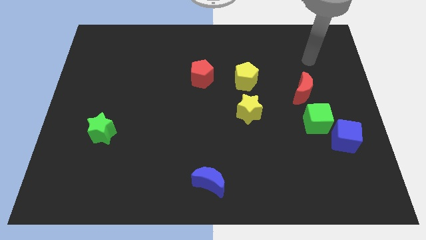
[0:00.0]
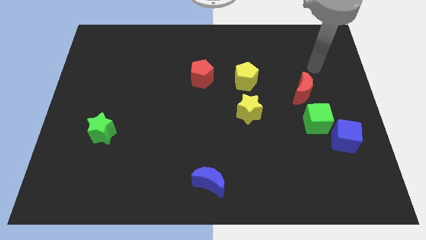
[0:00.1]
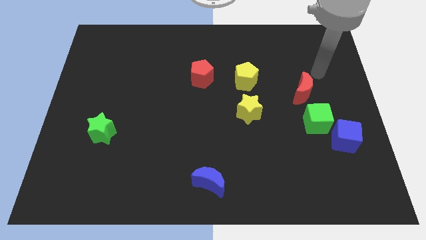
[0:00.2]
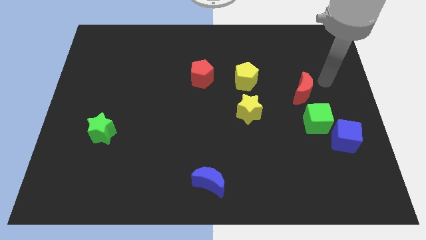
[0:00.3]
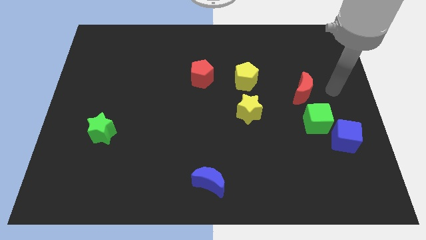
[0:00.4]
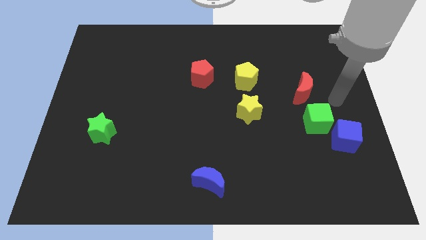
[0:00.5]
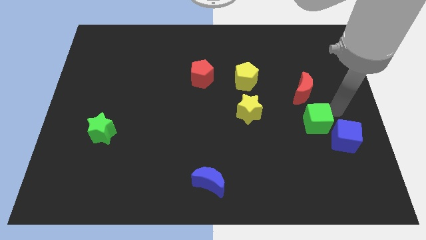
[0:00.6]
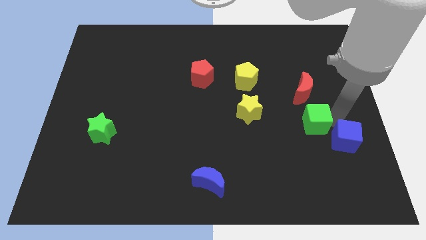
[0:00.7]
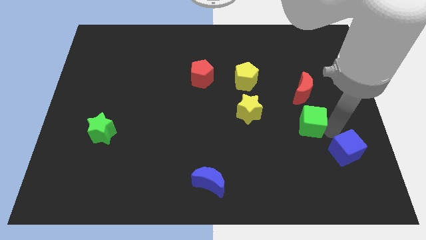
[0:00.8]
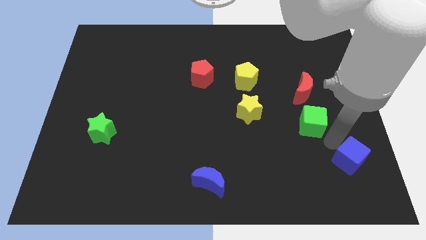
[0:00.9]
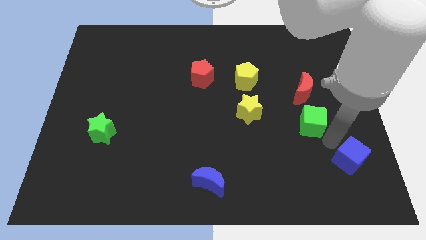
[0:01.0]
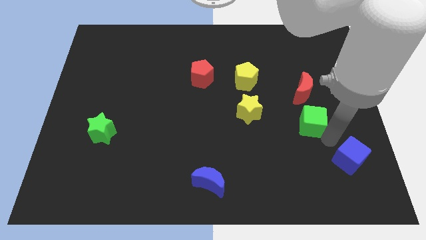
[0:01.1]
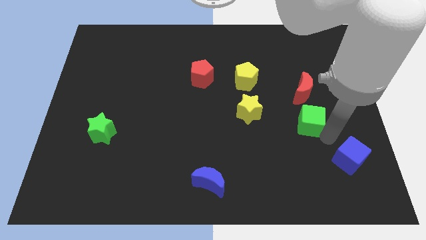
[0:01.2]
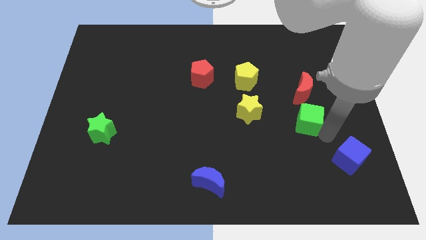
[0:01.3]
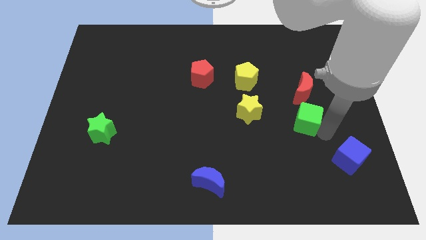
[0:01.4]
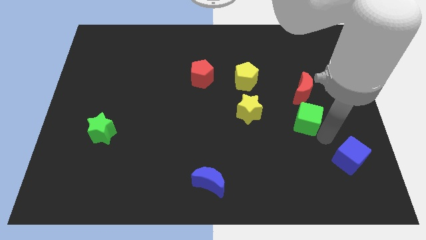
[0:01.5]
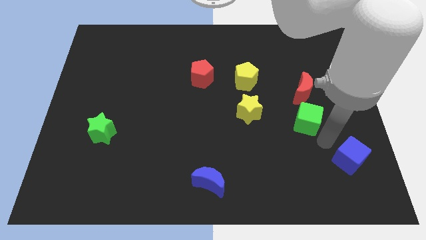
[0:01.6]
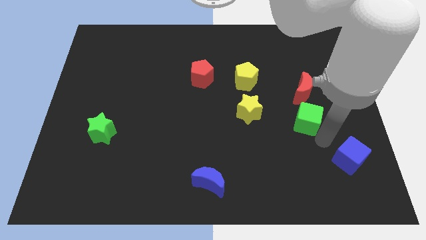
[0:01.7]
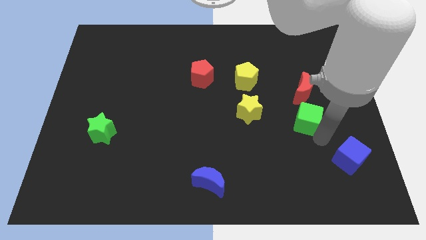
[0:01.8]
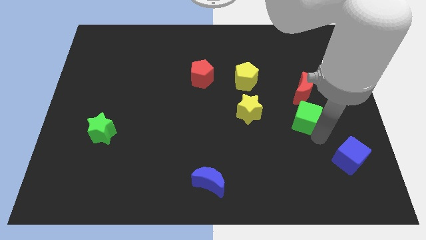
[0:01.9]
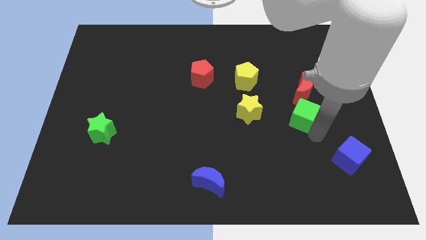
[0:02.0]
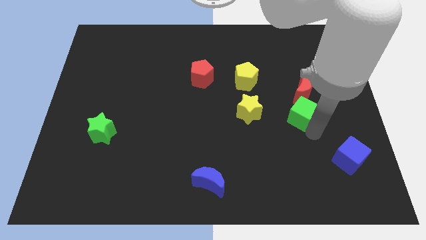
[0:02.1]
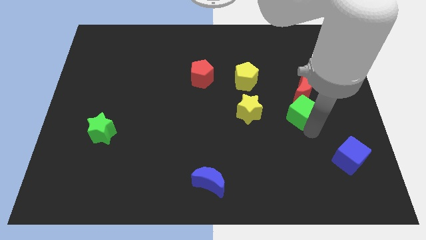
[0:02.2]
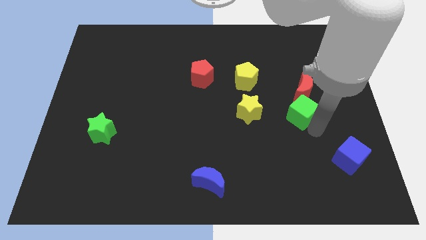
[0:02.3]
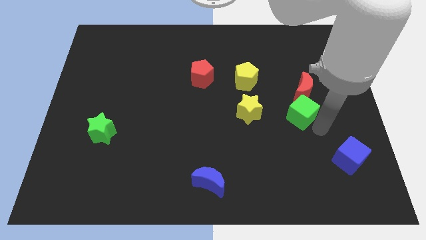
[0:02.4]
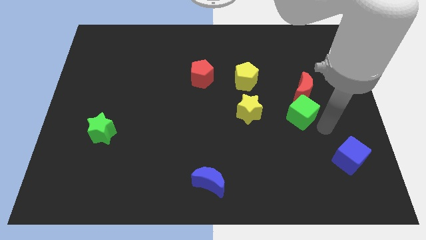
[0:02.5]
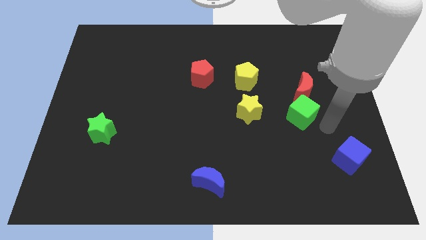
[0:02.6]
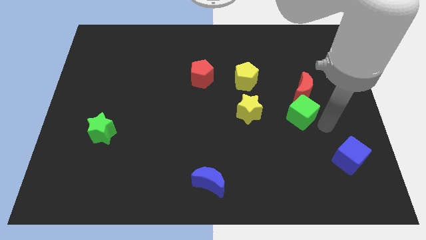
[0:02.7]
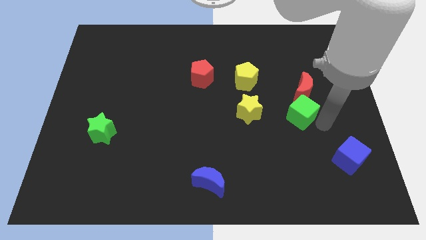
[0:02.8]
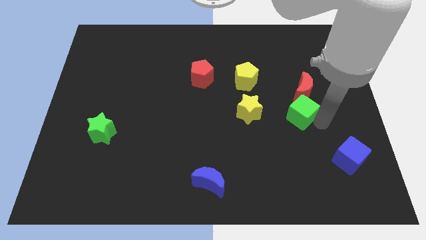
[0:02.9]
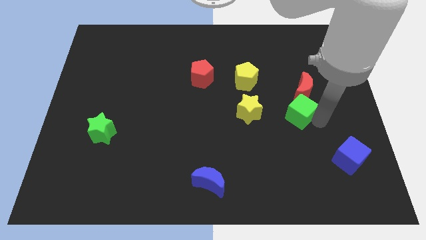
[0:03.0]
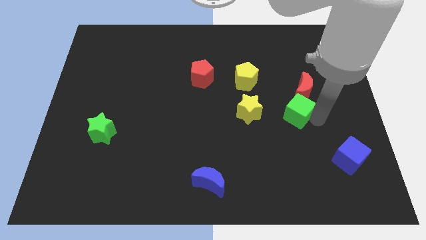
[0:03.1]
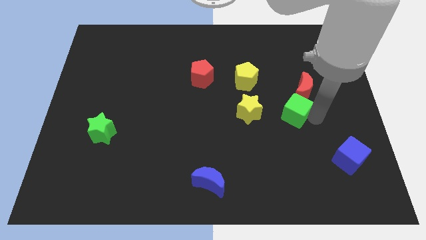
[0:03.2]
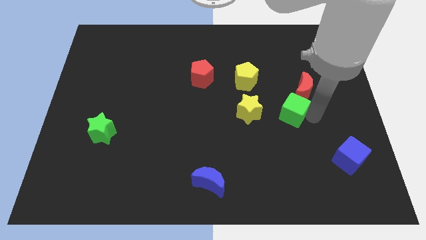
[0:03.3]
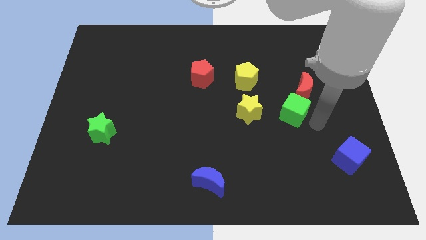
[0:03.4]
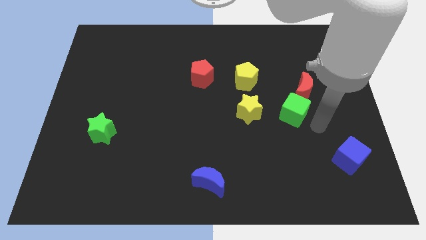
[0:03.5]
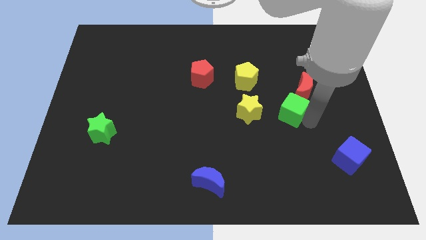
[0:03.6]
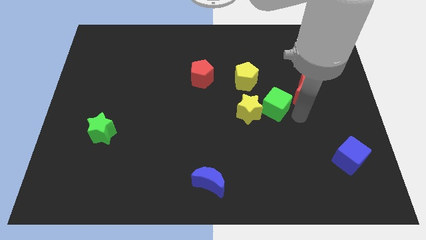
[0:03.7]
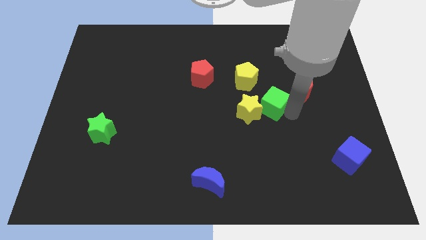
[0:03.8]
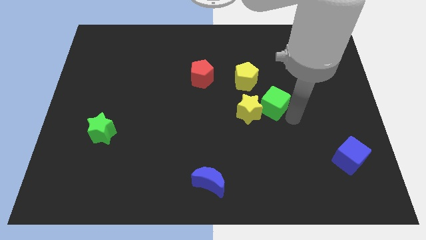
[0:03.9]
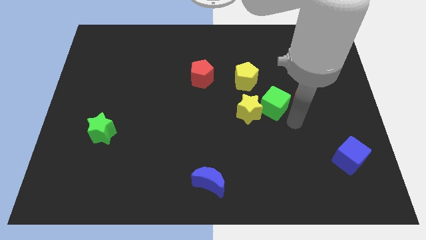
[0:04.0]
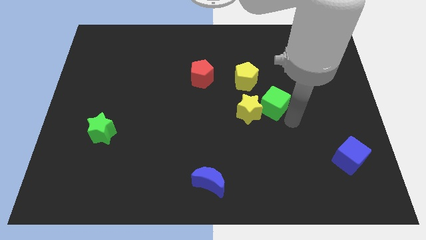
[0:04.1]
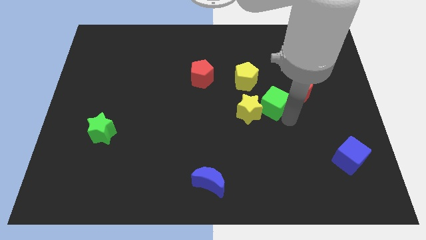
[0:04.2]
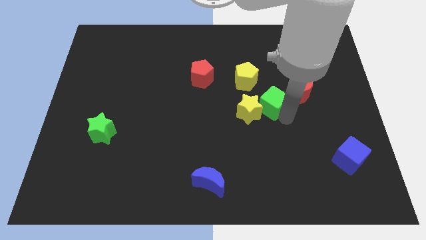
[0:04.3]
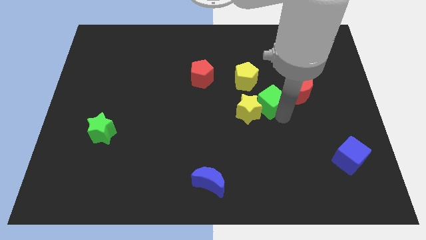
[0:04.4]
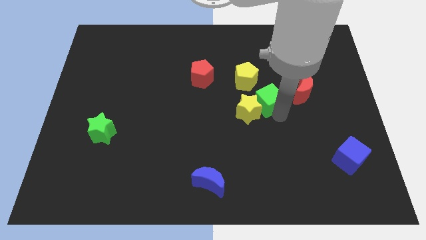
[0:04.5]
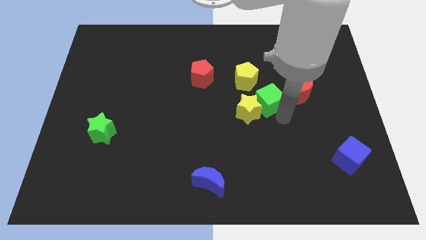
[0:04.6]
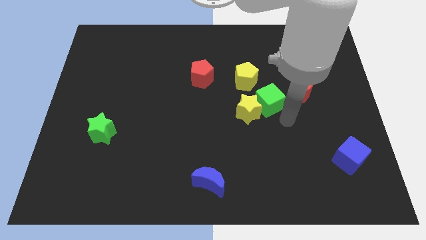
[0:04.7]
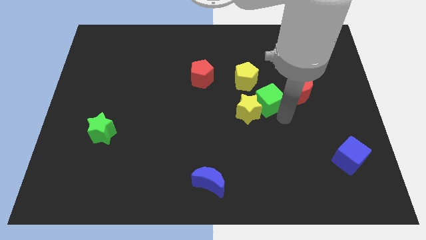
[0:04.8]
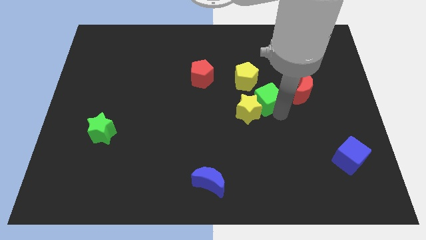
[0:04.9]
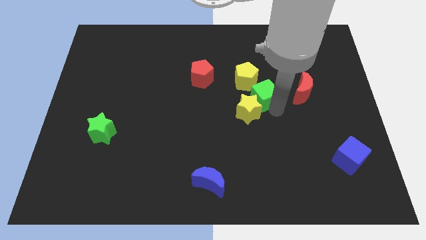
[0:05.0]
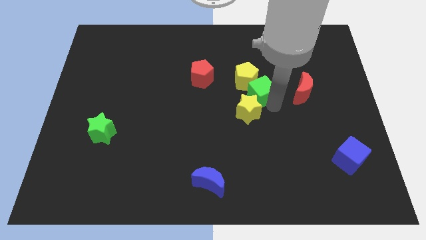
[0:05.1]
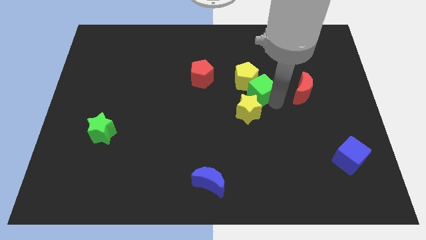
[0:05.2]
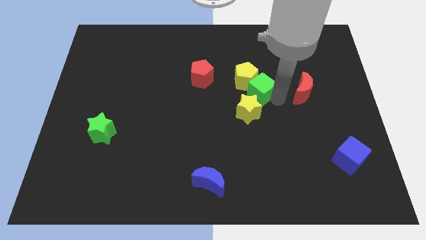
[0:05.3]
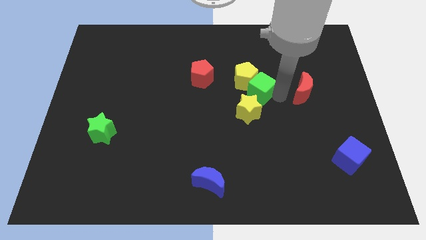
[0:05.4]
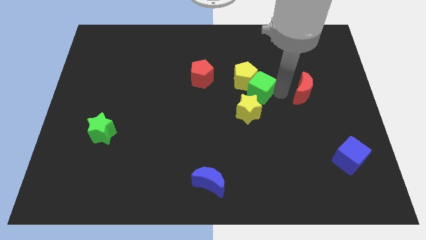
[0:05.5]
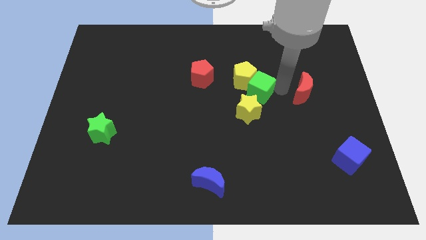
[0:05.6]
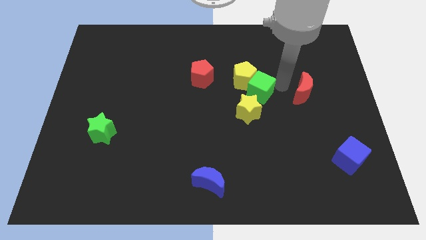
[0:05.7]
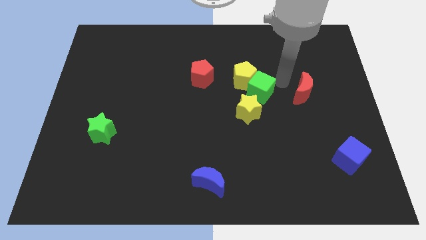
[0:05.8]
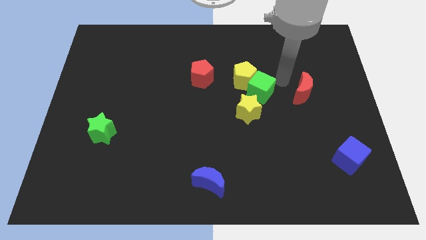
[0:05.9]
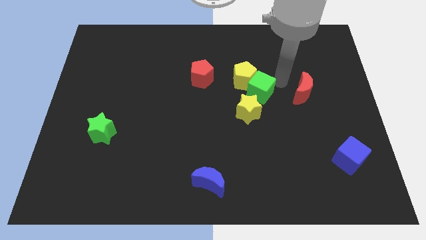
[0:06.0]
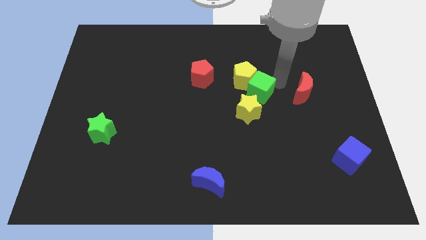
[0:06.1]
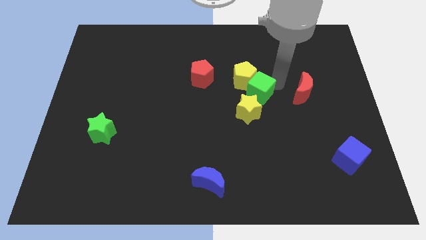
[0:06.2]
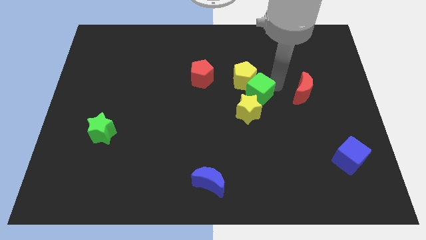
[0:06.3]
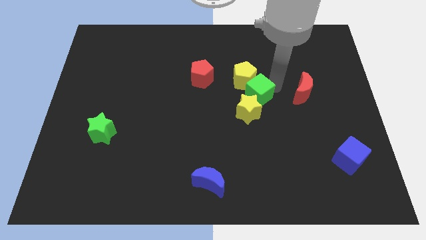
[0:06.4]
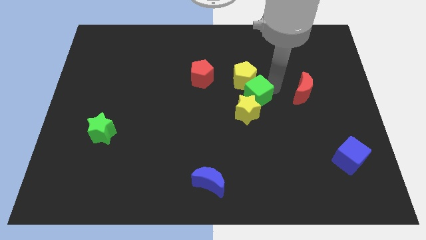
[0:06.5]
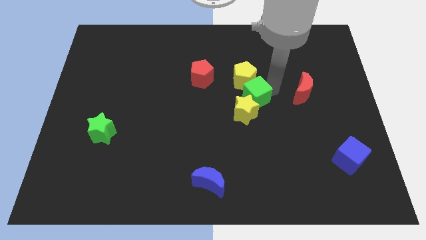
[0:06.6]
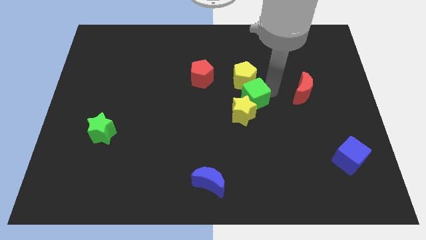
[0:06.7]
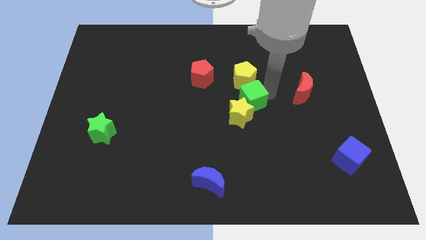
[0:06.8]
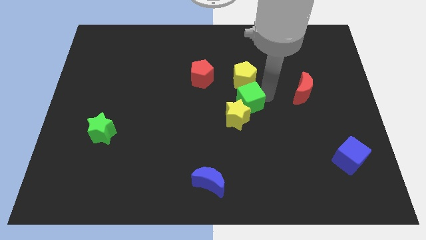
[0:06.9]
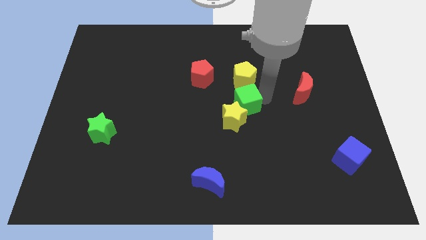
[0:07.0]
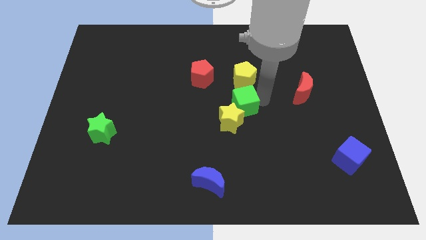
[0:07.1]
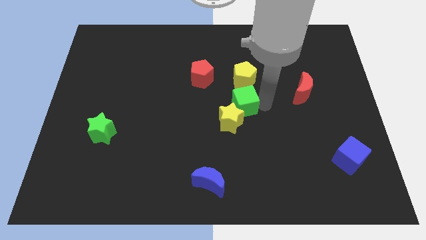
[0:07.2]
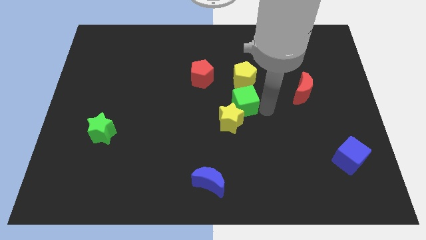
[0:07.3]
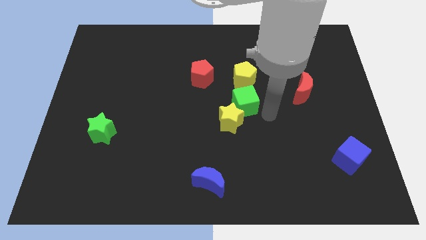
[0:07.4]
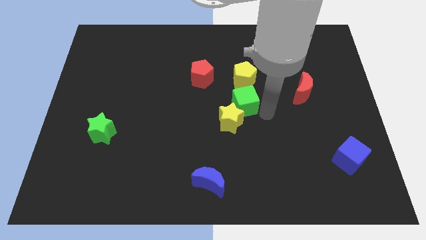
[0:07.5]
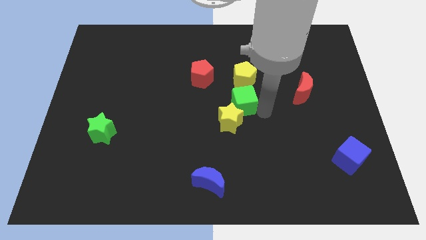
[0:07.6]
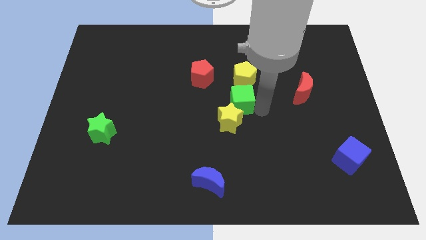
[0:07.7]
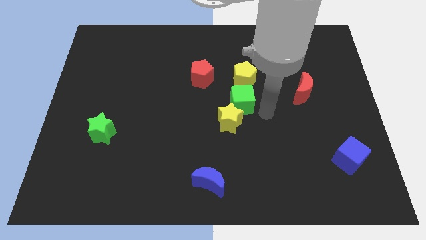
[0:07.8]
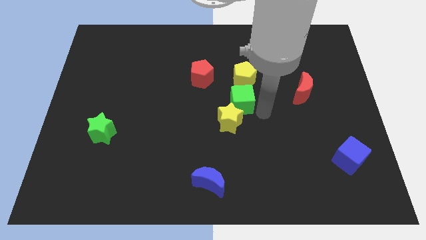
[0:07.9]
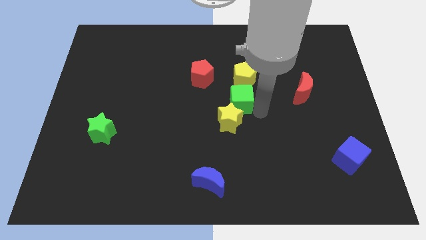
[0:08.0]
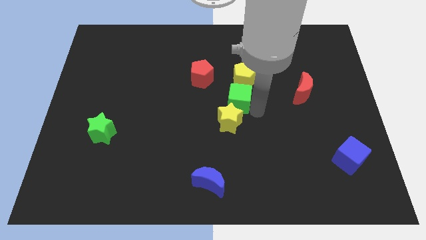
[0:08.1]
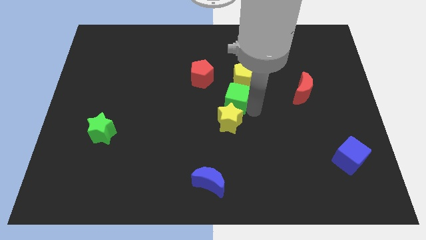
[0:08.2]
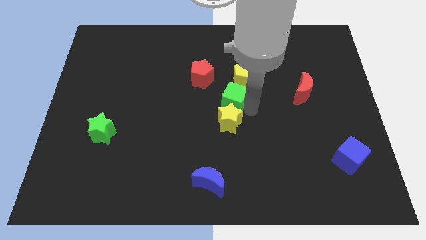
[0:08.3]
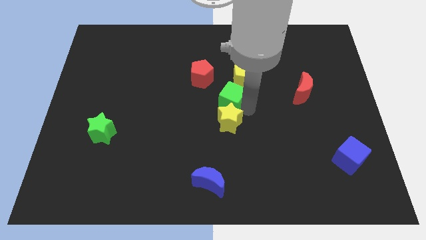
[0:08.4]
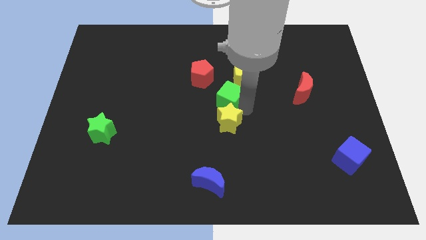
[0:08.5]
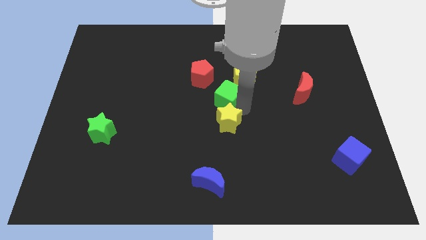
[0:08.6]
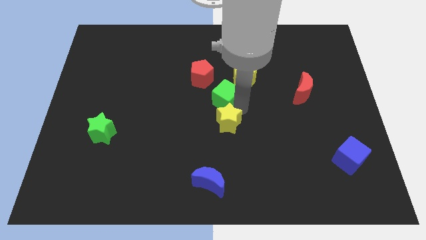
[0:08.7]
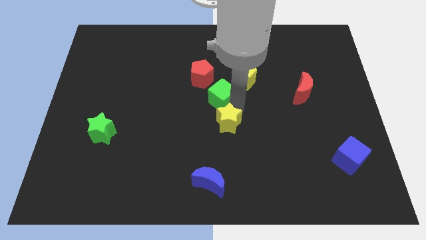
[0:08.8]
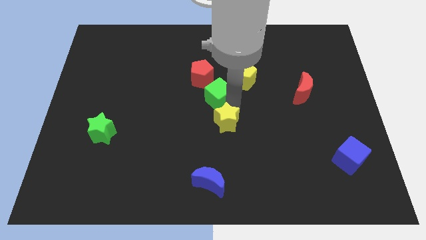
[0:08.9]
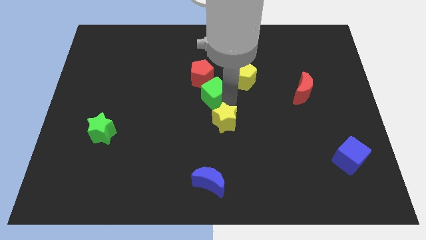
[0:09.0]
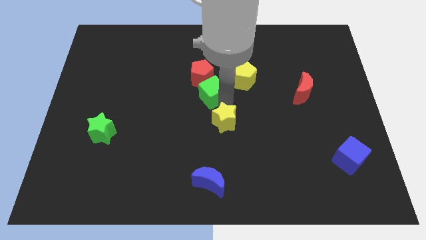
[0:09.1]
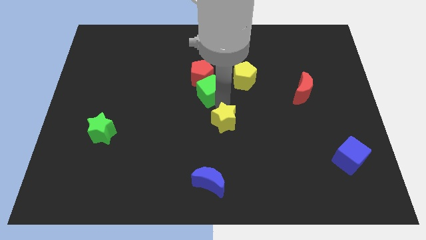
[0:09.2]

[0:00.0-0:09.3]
slide the green cube next to the red pentagon
